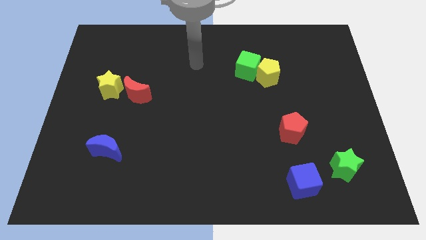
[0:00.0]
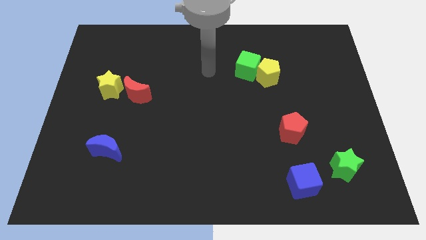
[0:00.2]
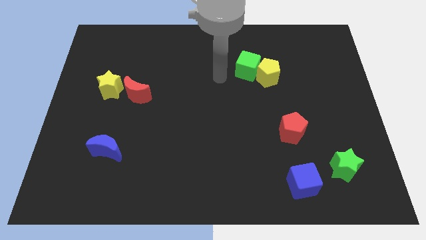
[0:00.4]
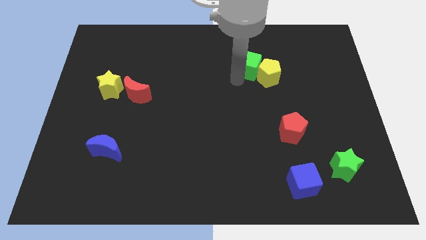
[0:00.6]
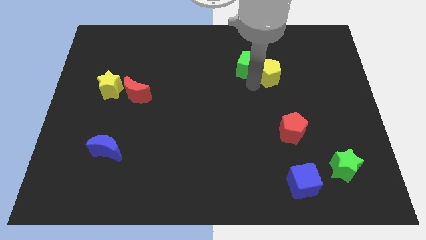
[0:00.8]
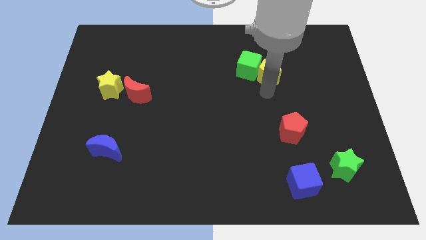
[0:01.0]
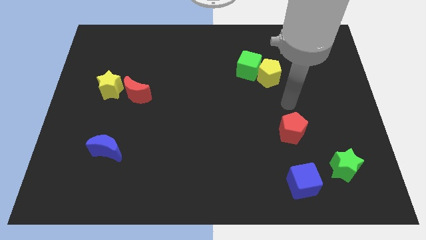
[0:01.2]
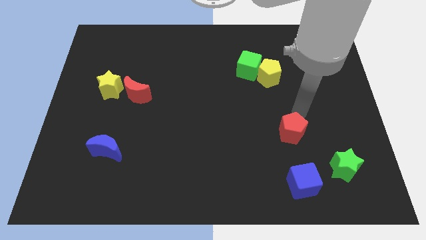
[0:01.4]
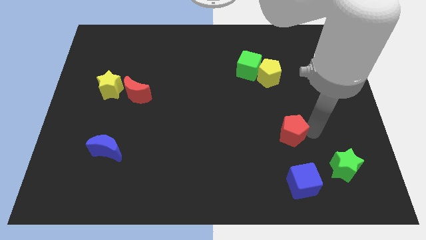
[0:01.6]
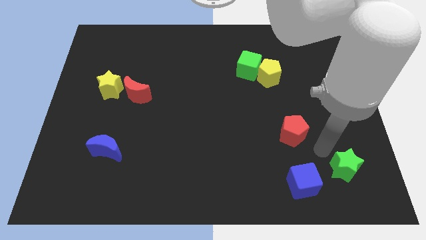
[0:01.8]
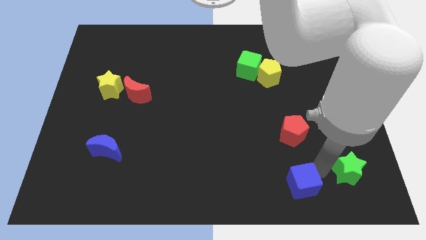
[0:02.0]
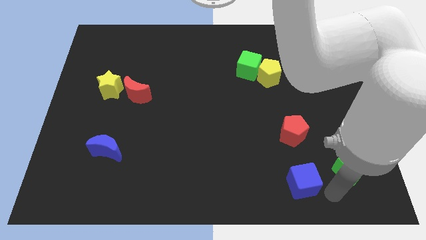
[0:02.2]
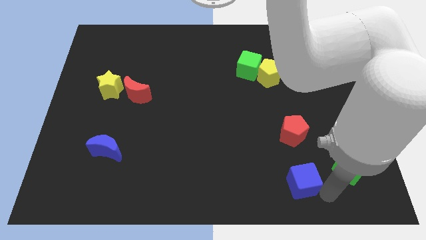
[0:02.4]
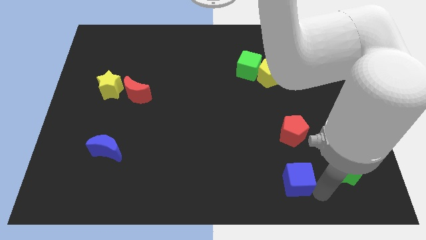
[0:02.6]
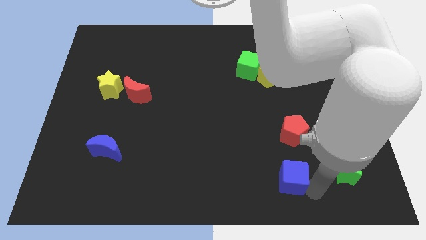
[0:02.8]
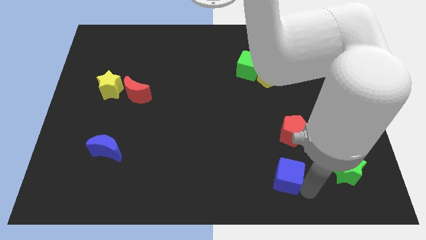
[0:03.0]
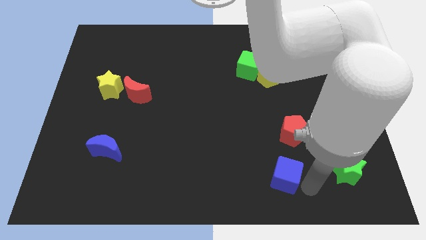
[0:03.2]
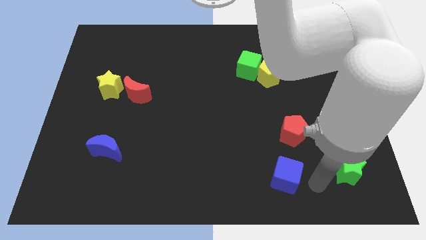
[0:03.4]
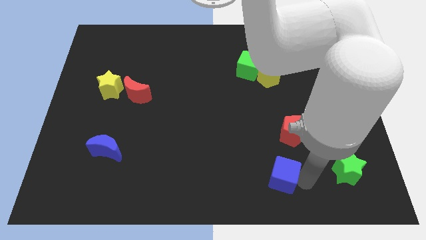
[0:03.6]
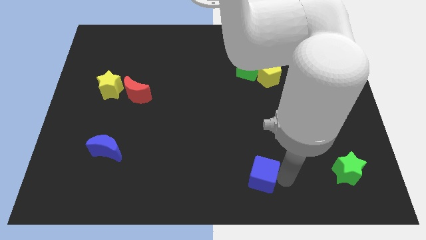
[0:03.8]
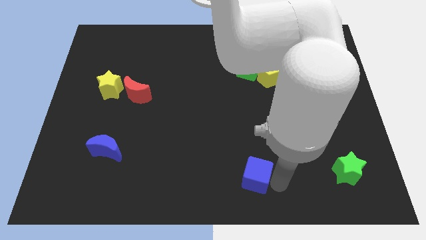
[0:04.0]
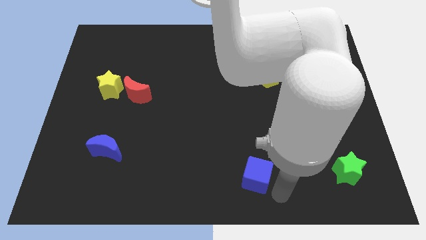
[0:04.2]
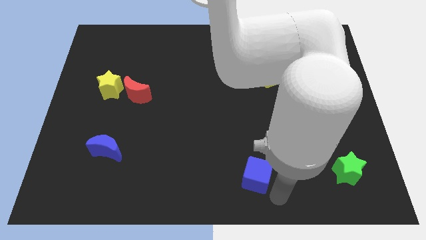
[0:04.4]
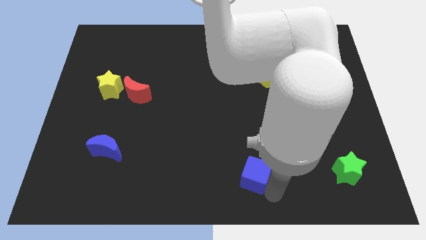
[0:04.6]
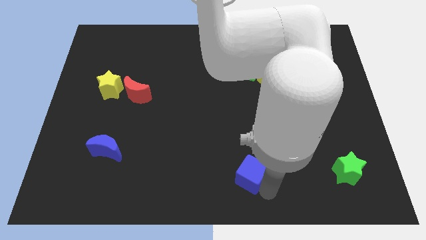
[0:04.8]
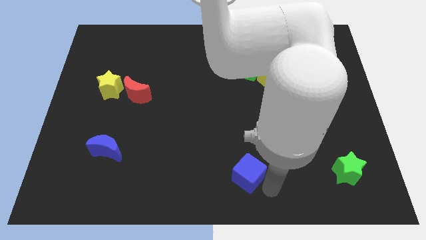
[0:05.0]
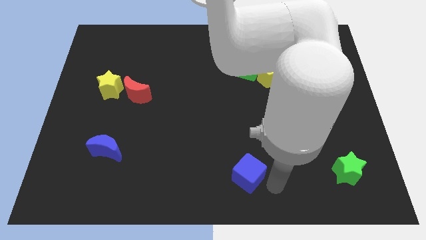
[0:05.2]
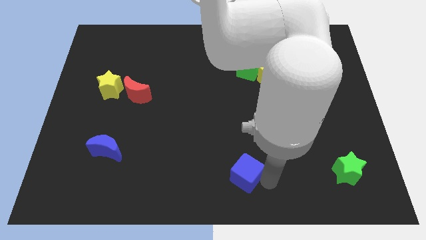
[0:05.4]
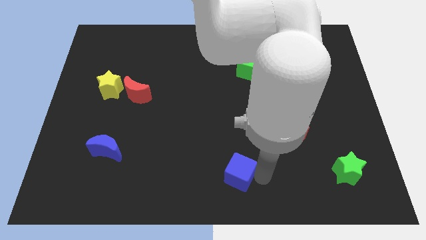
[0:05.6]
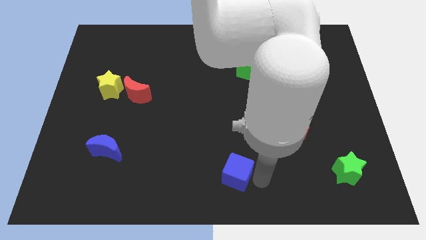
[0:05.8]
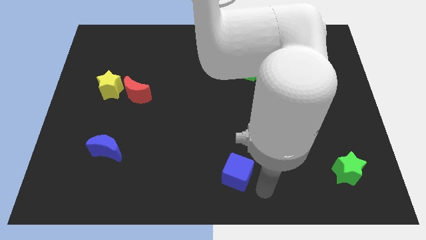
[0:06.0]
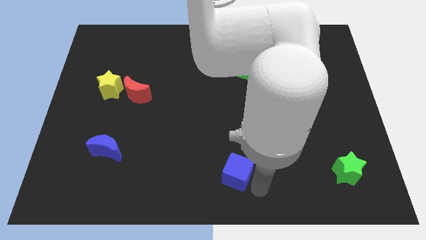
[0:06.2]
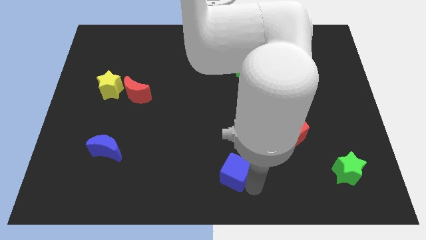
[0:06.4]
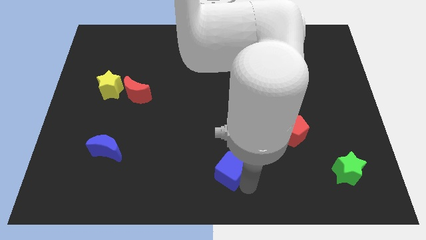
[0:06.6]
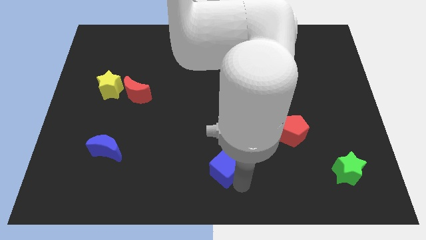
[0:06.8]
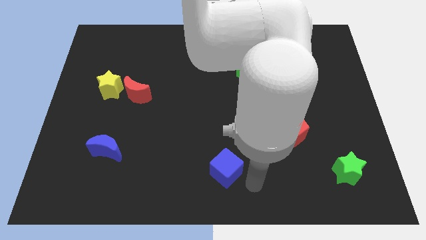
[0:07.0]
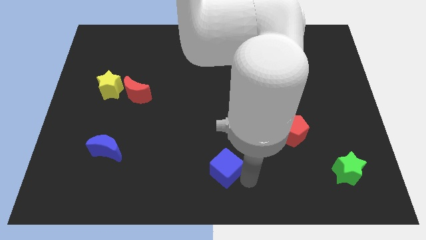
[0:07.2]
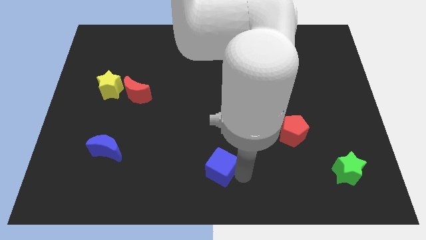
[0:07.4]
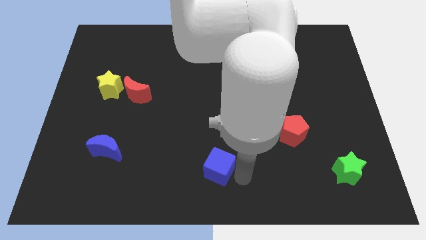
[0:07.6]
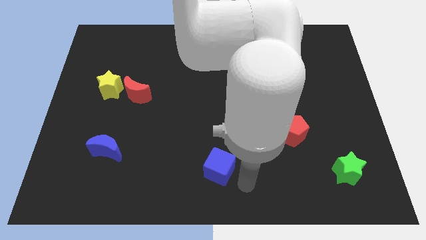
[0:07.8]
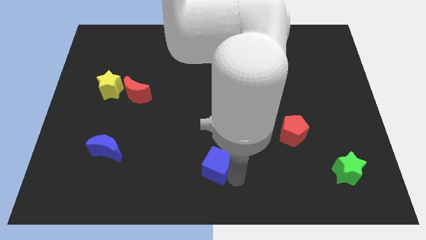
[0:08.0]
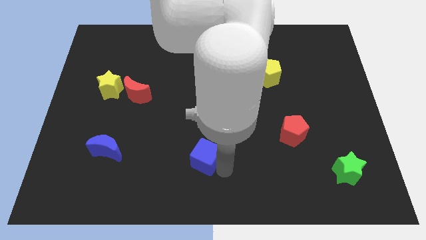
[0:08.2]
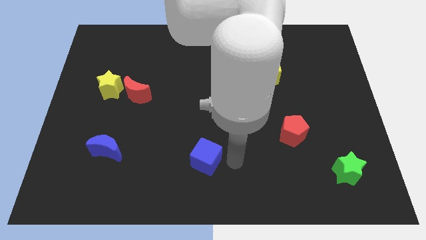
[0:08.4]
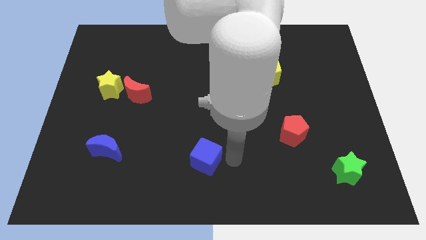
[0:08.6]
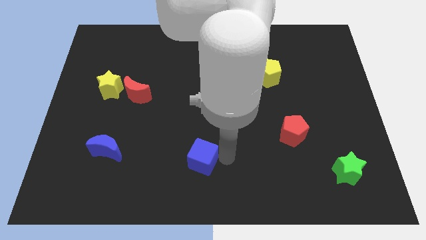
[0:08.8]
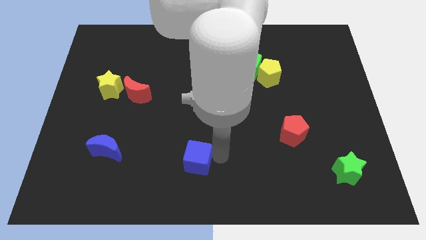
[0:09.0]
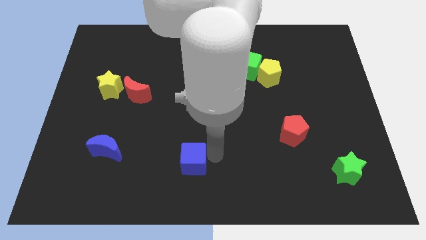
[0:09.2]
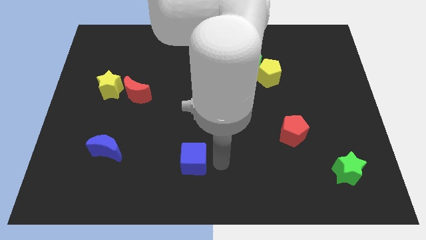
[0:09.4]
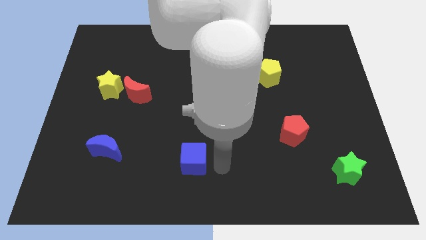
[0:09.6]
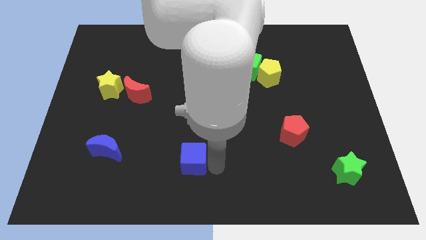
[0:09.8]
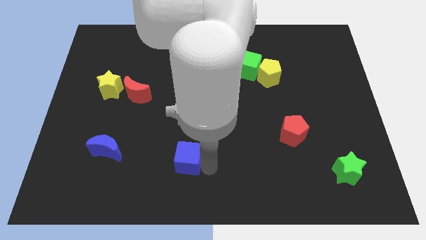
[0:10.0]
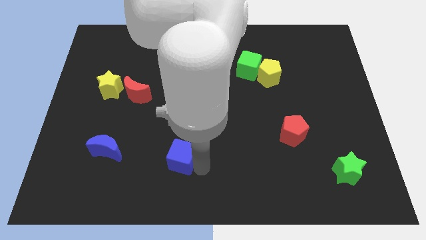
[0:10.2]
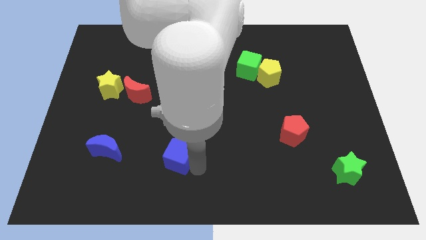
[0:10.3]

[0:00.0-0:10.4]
put the blue cube to the right of the blue moon

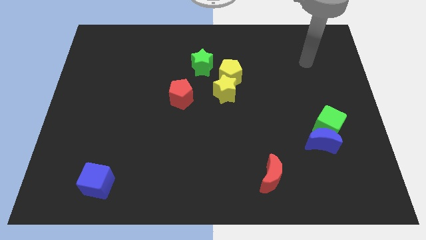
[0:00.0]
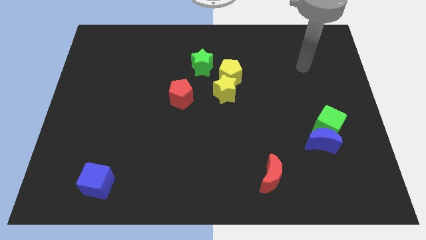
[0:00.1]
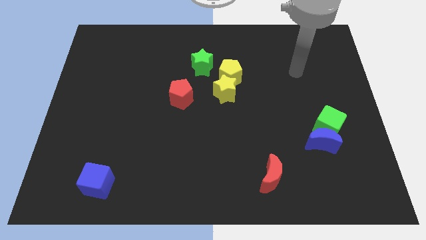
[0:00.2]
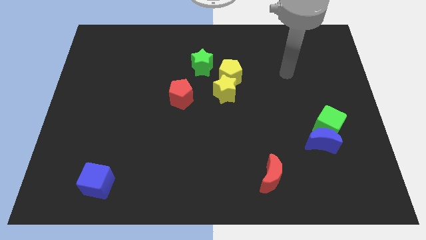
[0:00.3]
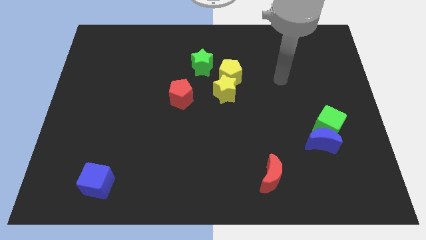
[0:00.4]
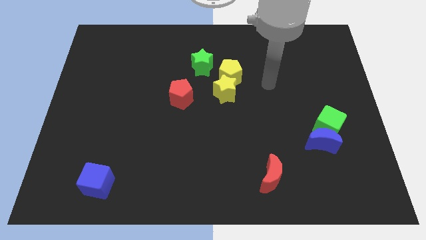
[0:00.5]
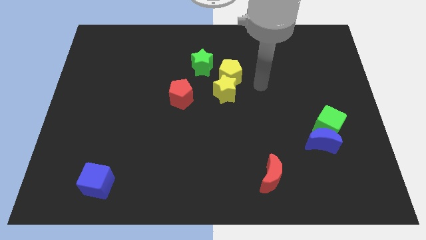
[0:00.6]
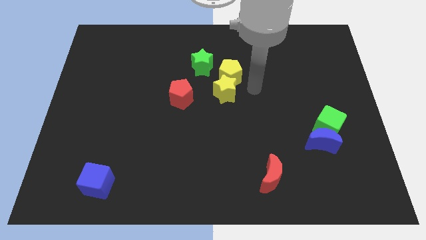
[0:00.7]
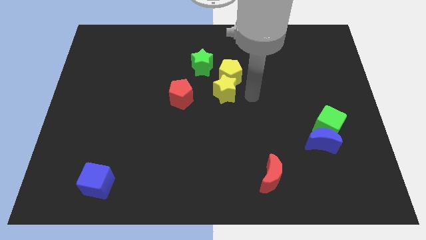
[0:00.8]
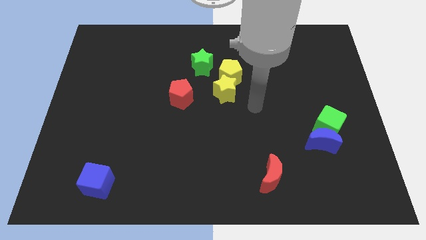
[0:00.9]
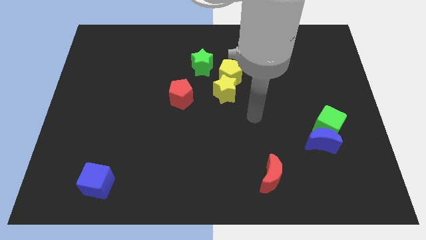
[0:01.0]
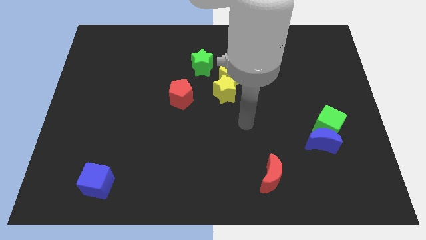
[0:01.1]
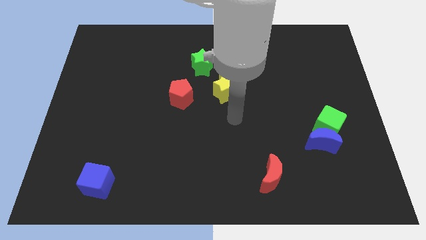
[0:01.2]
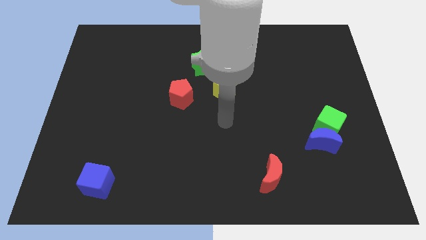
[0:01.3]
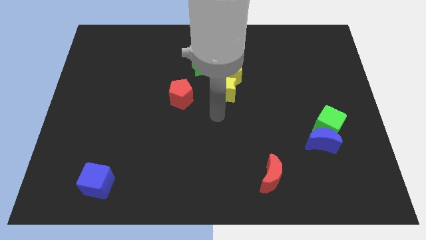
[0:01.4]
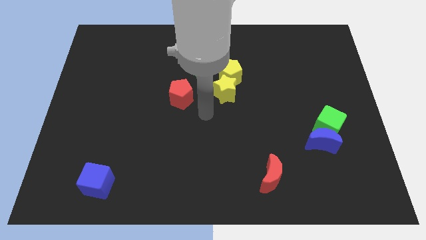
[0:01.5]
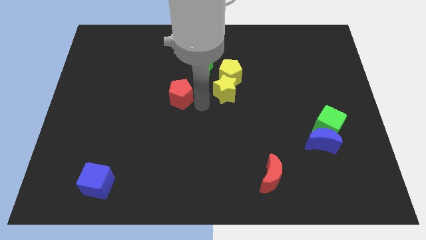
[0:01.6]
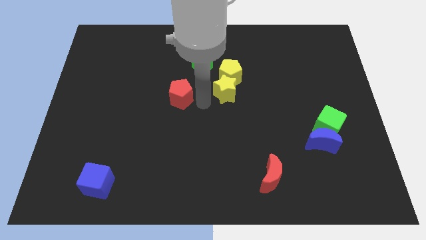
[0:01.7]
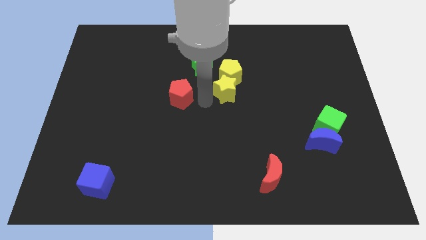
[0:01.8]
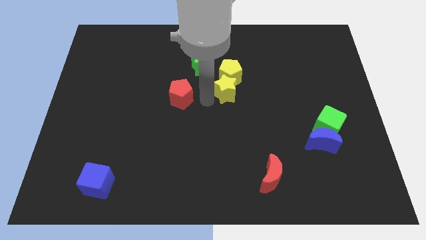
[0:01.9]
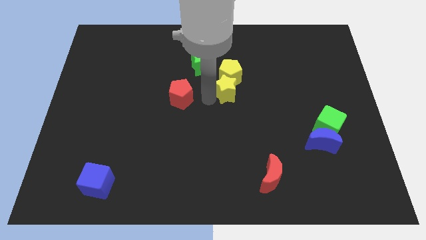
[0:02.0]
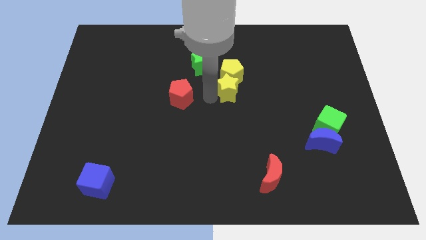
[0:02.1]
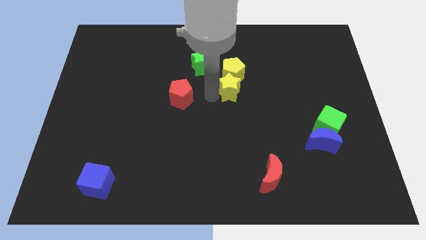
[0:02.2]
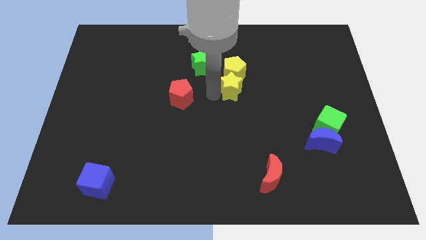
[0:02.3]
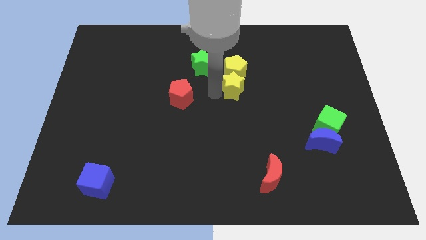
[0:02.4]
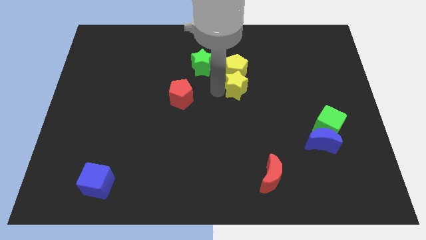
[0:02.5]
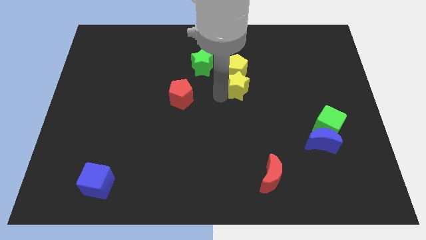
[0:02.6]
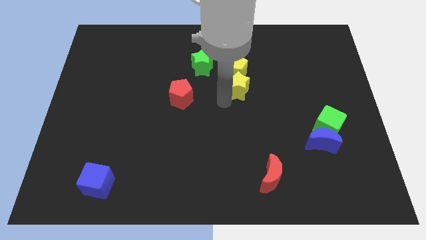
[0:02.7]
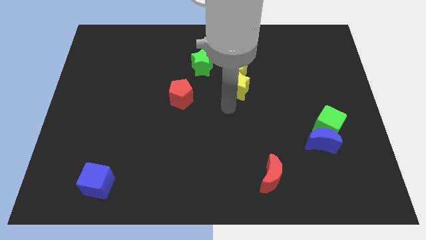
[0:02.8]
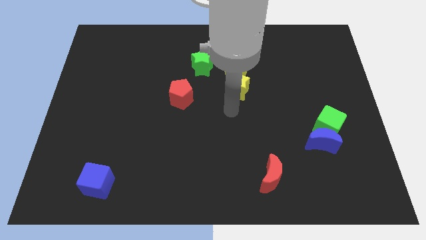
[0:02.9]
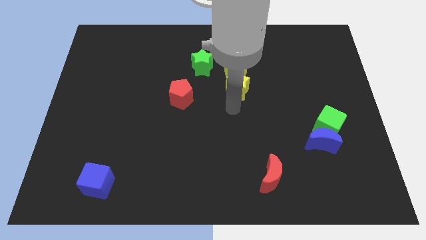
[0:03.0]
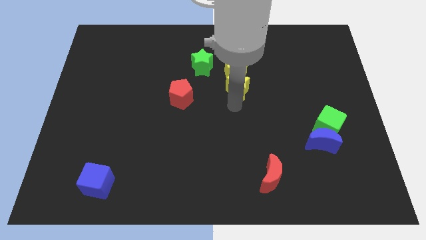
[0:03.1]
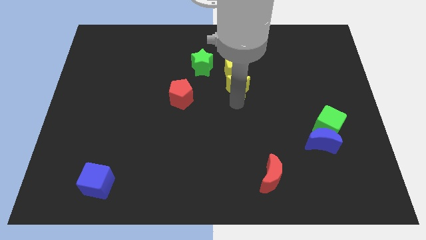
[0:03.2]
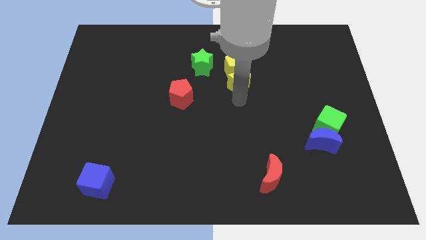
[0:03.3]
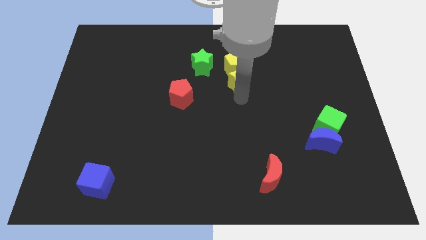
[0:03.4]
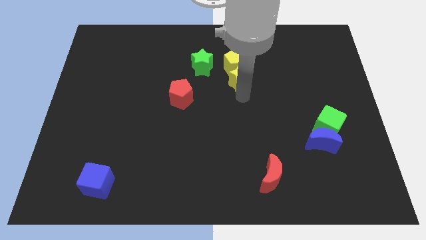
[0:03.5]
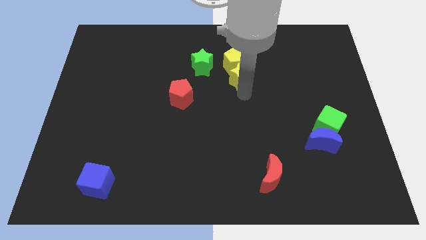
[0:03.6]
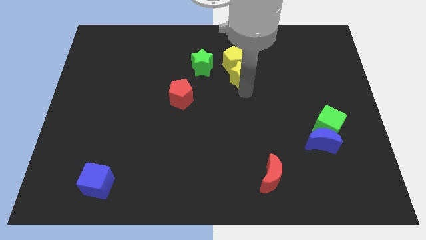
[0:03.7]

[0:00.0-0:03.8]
move the yellow star right of the green star
